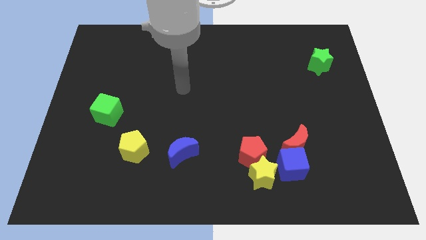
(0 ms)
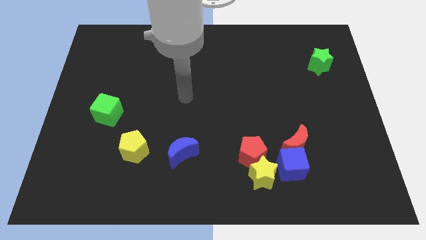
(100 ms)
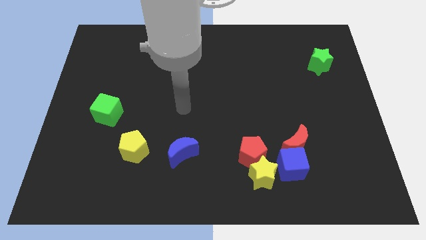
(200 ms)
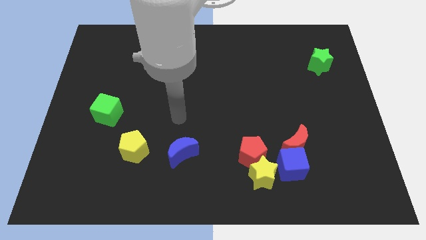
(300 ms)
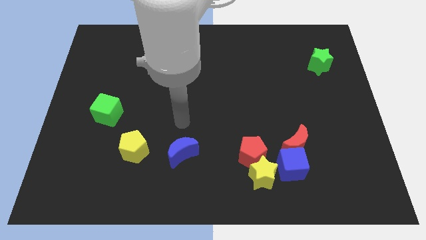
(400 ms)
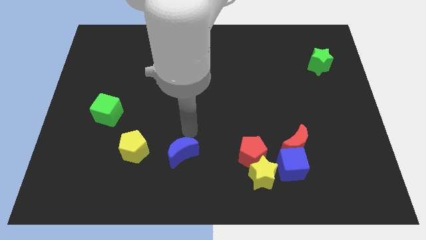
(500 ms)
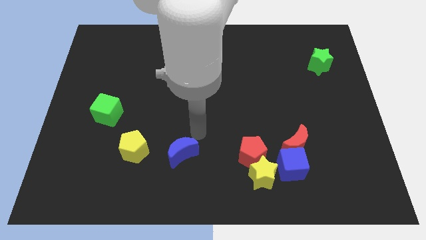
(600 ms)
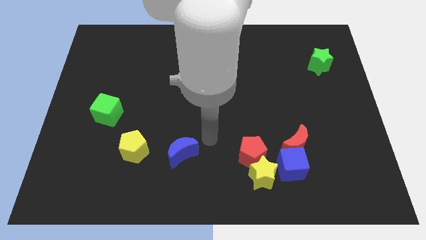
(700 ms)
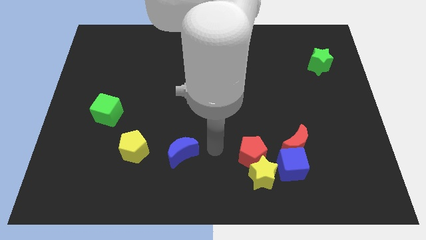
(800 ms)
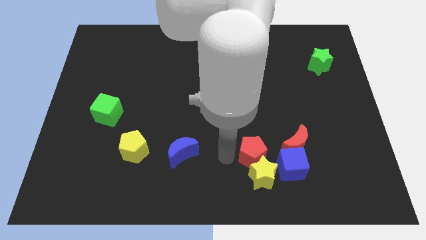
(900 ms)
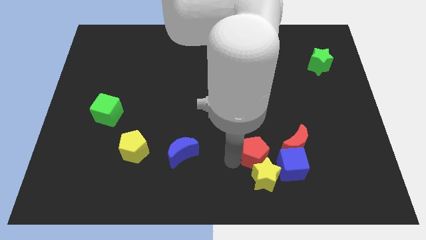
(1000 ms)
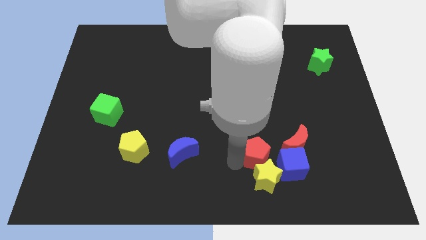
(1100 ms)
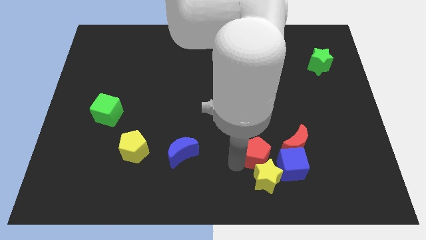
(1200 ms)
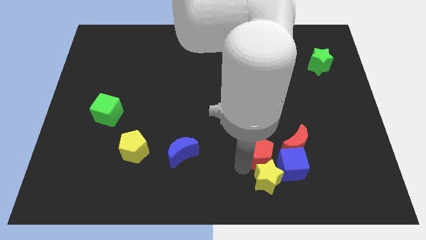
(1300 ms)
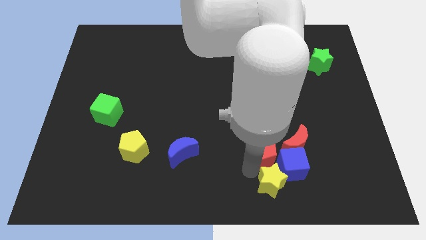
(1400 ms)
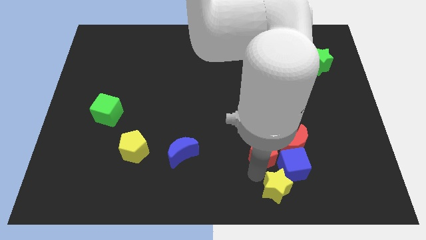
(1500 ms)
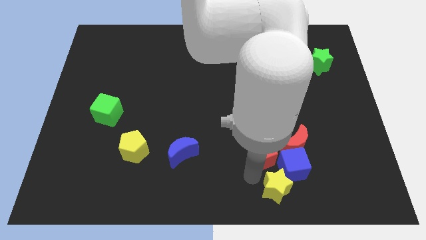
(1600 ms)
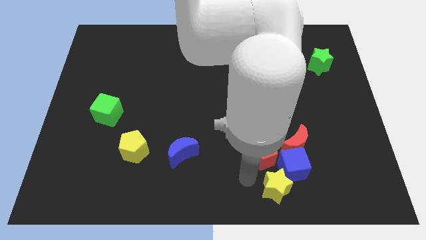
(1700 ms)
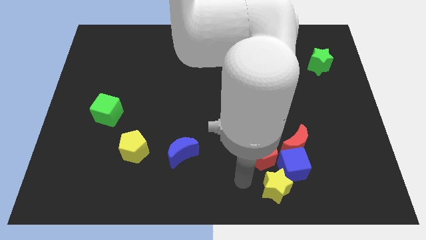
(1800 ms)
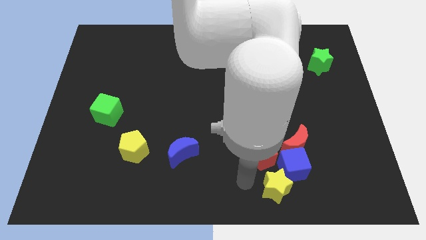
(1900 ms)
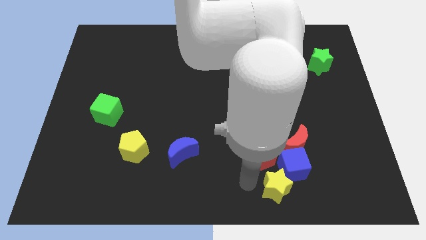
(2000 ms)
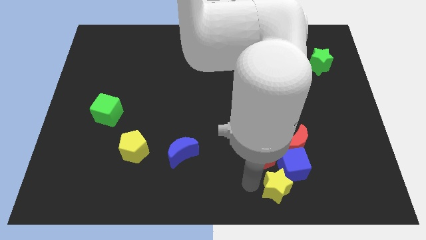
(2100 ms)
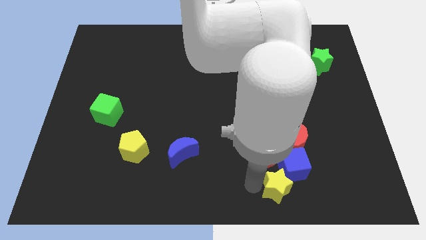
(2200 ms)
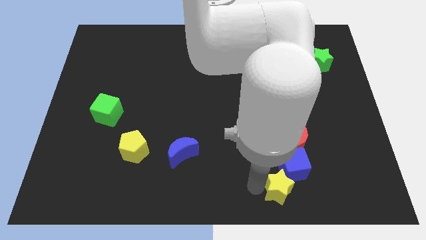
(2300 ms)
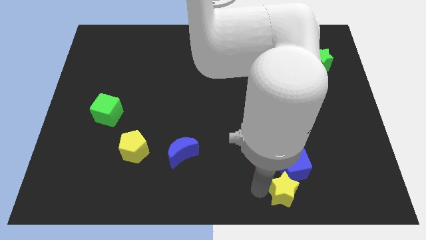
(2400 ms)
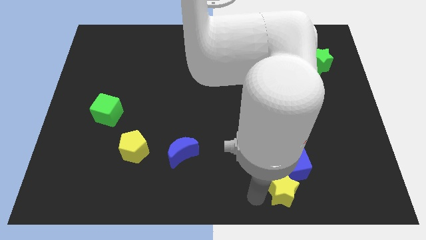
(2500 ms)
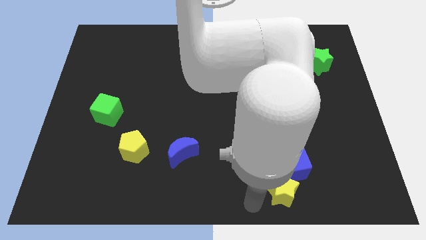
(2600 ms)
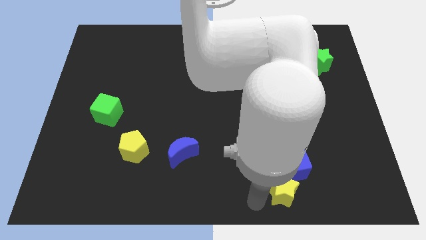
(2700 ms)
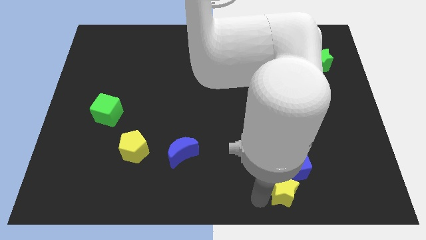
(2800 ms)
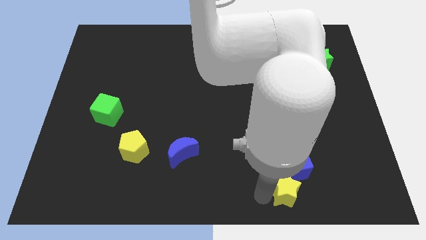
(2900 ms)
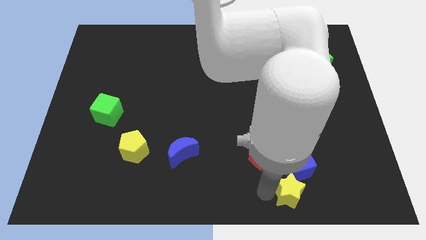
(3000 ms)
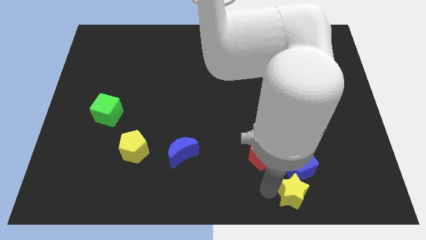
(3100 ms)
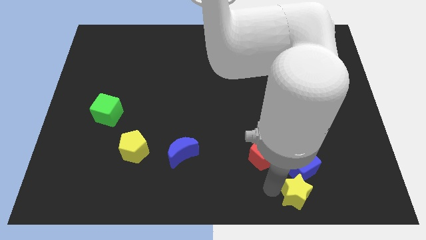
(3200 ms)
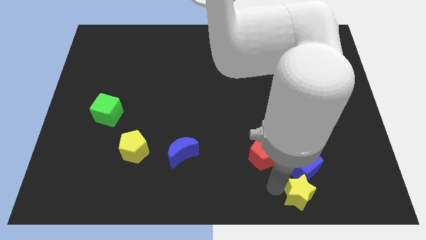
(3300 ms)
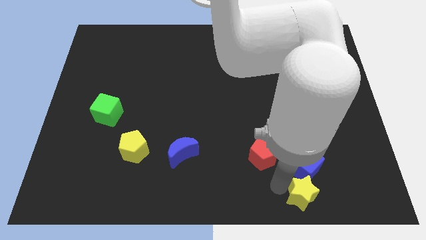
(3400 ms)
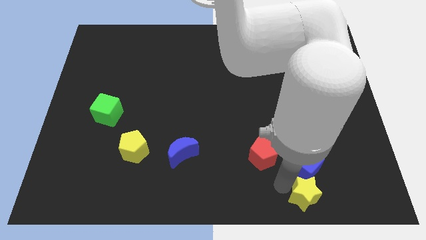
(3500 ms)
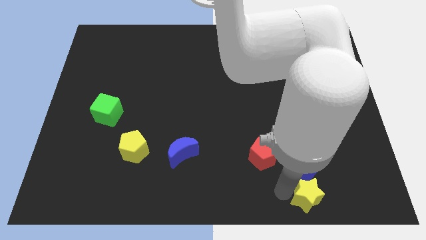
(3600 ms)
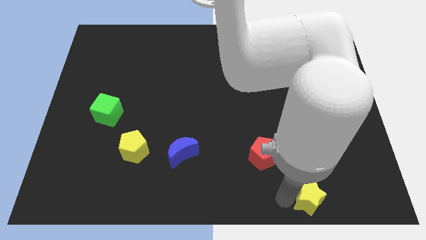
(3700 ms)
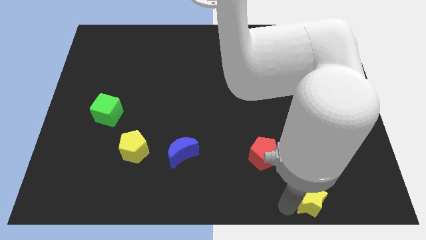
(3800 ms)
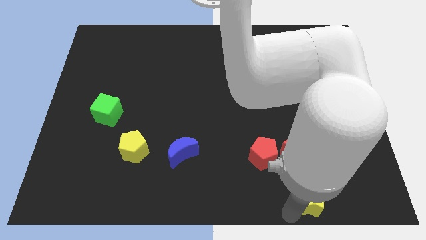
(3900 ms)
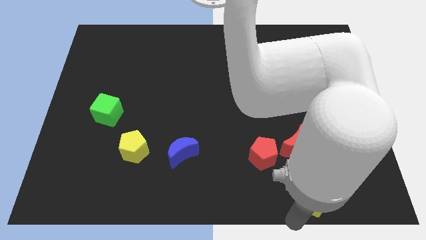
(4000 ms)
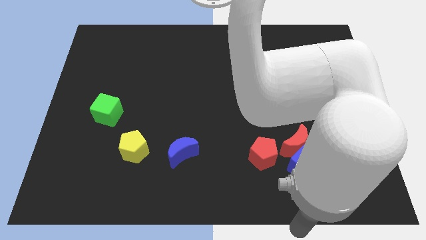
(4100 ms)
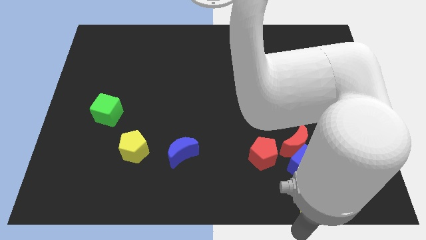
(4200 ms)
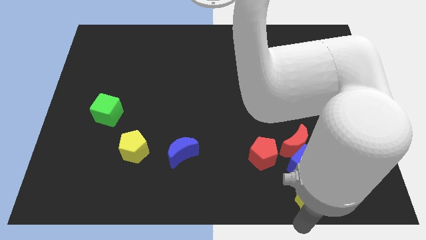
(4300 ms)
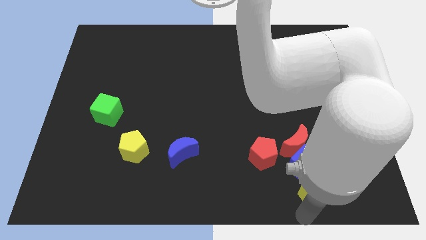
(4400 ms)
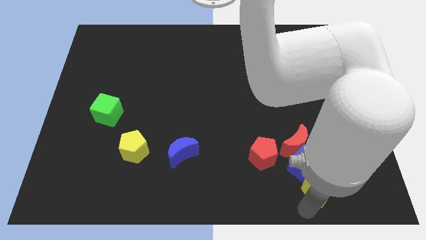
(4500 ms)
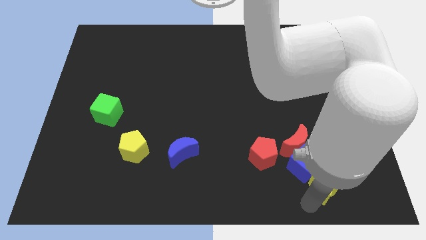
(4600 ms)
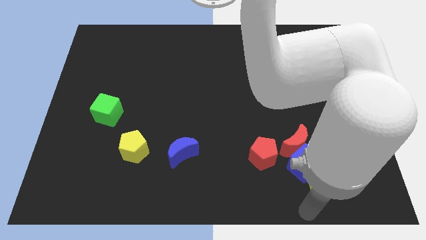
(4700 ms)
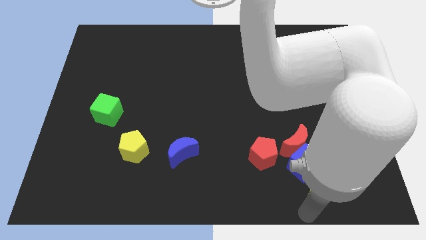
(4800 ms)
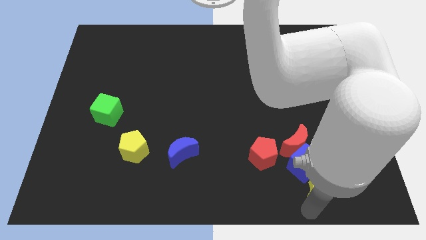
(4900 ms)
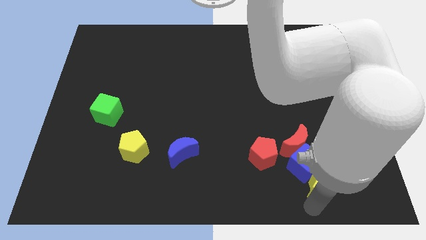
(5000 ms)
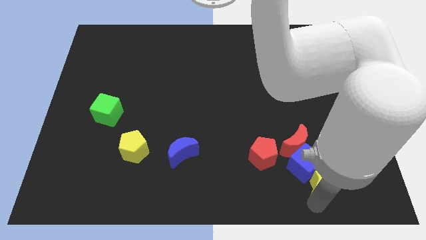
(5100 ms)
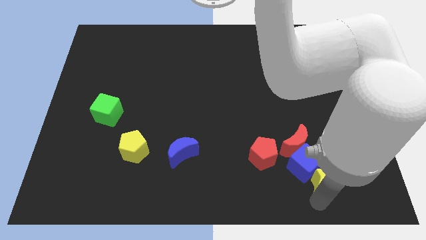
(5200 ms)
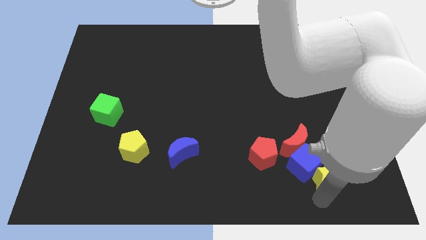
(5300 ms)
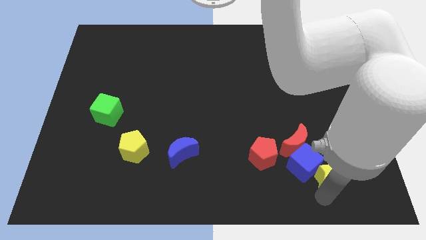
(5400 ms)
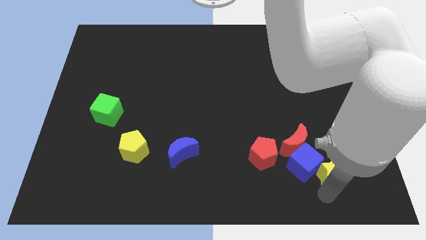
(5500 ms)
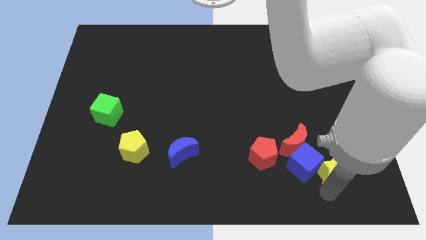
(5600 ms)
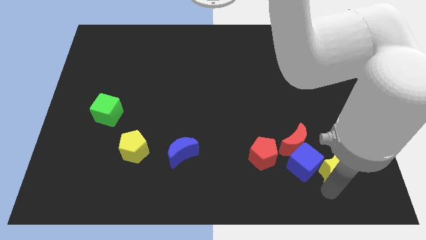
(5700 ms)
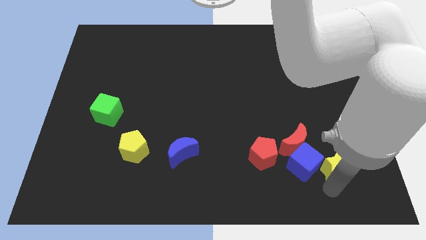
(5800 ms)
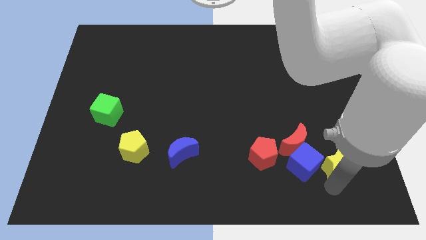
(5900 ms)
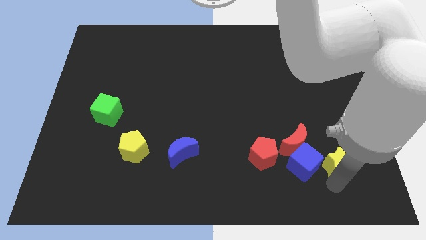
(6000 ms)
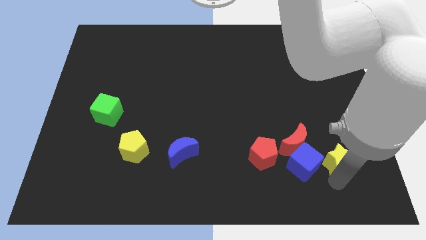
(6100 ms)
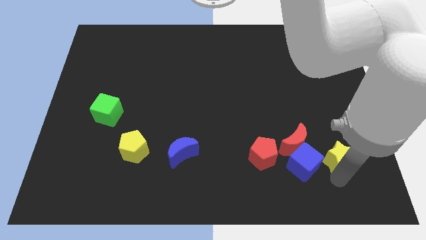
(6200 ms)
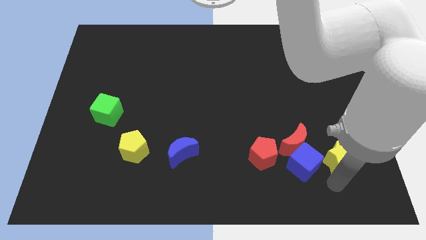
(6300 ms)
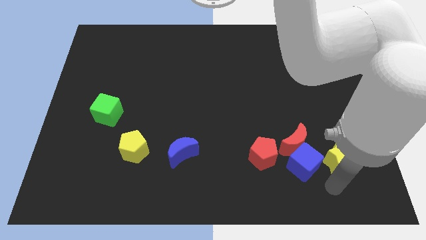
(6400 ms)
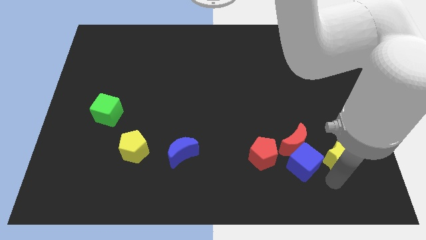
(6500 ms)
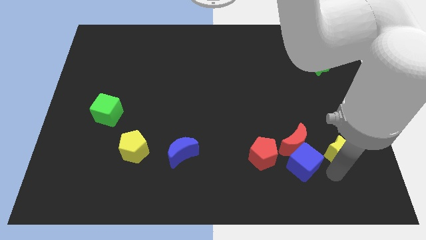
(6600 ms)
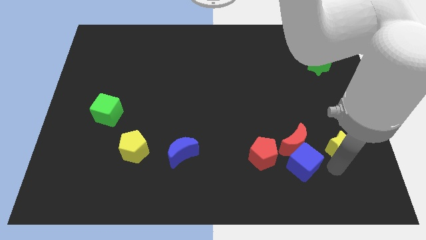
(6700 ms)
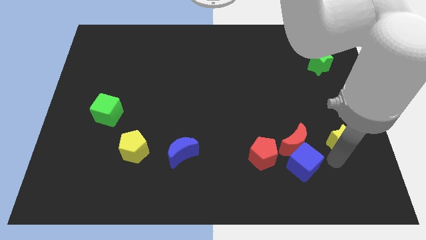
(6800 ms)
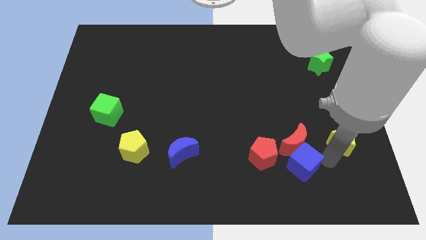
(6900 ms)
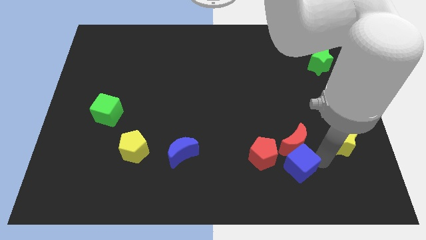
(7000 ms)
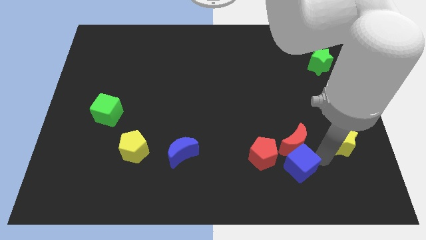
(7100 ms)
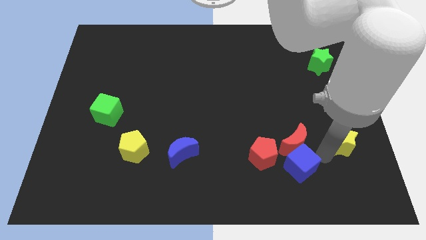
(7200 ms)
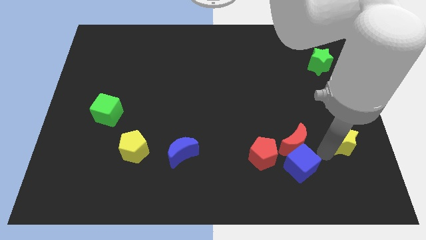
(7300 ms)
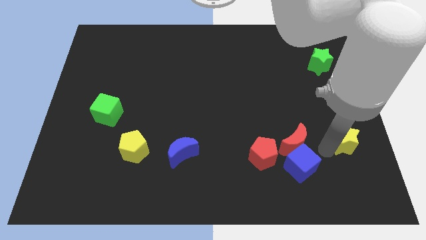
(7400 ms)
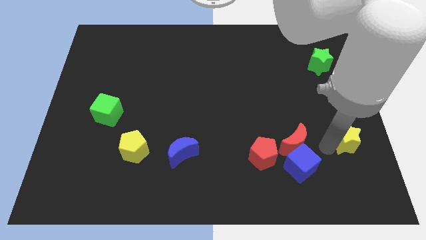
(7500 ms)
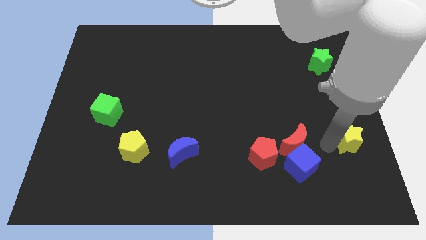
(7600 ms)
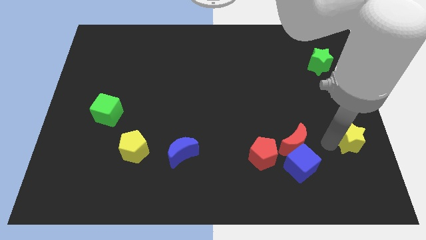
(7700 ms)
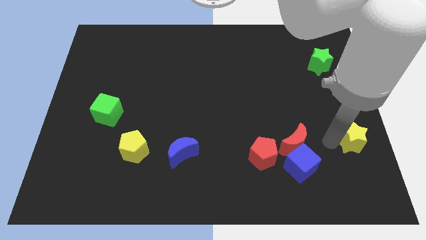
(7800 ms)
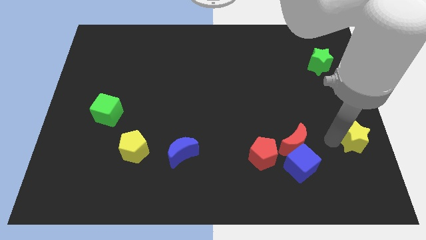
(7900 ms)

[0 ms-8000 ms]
put the yellow star to the center right
